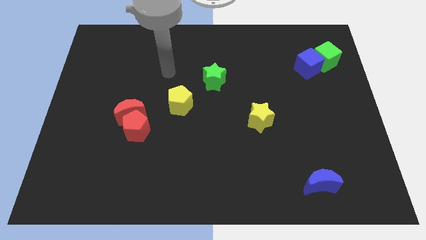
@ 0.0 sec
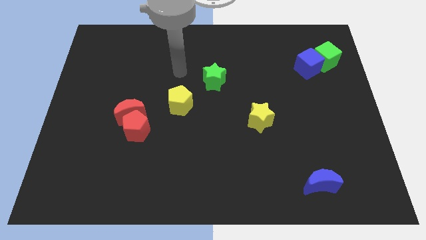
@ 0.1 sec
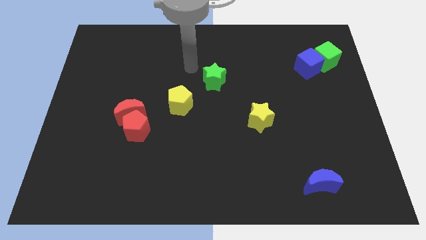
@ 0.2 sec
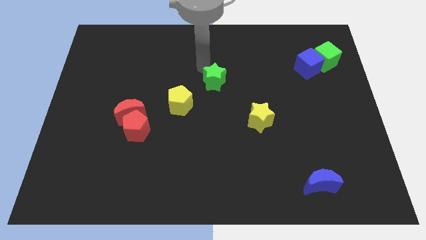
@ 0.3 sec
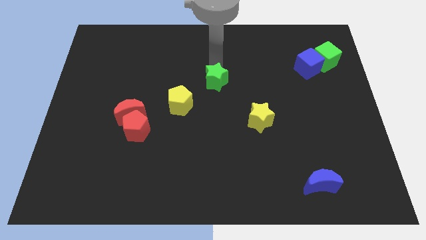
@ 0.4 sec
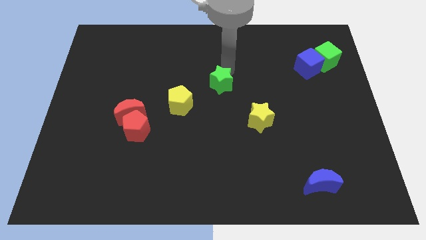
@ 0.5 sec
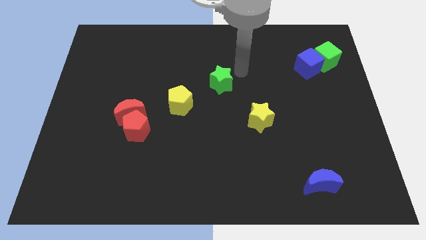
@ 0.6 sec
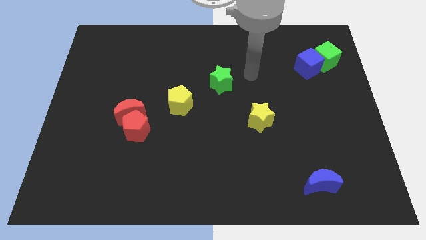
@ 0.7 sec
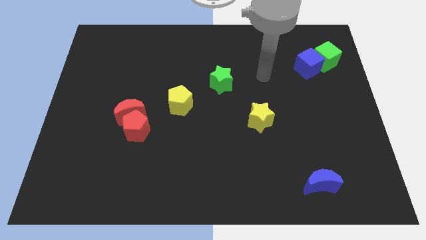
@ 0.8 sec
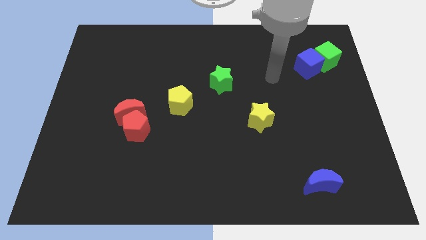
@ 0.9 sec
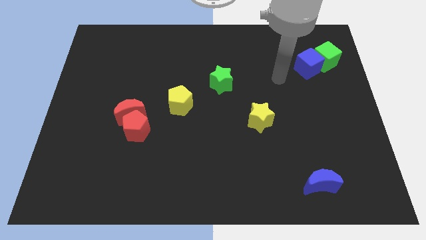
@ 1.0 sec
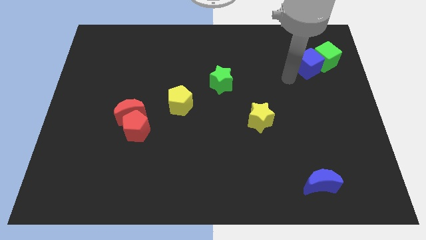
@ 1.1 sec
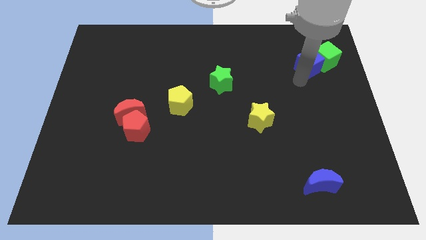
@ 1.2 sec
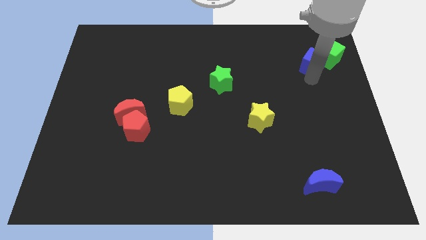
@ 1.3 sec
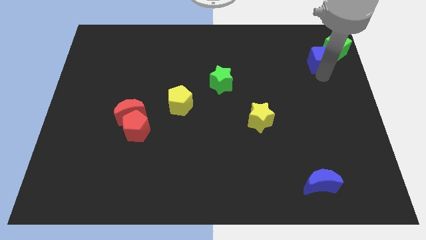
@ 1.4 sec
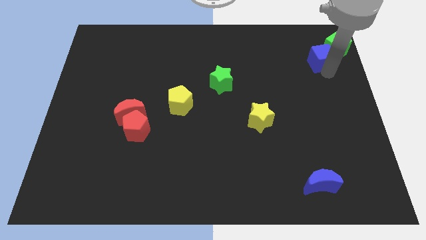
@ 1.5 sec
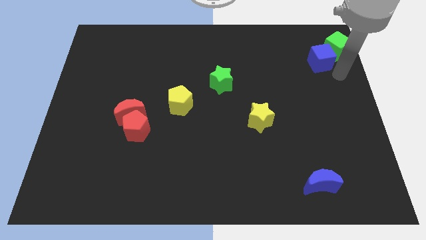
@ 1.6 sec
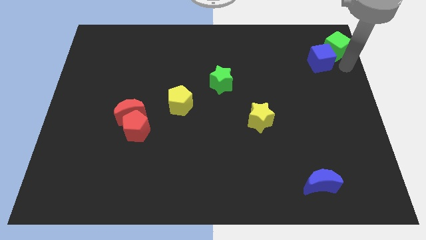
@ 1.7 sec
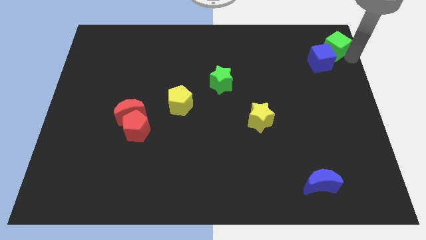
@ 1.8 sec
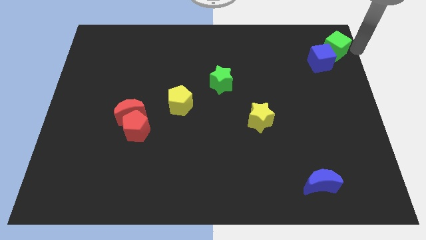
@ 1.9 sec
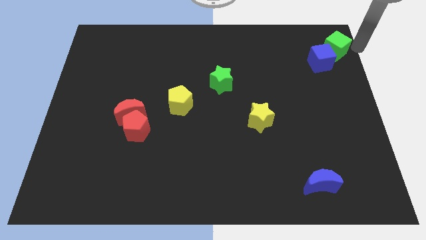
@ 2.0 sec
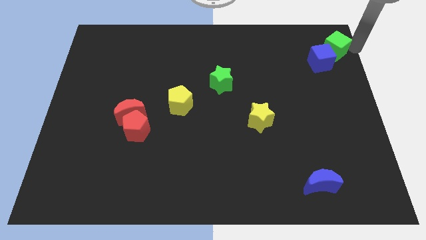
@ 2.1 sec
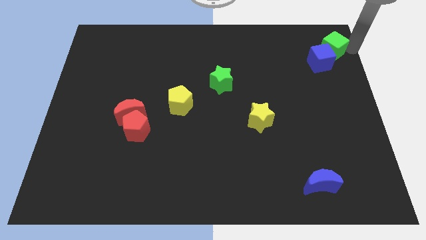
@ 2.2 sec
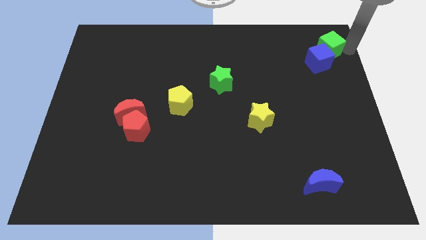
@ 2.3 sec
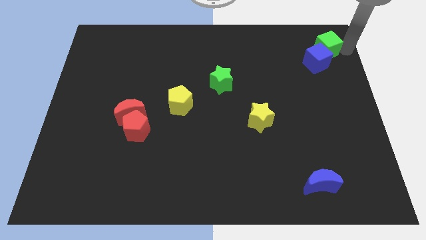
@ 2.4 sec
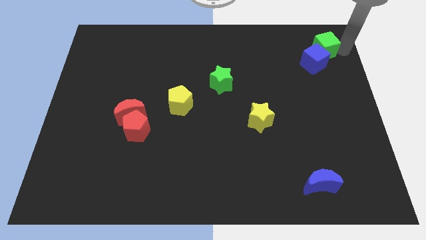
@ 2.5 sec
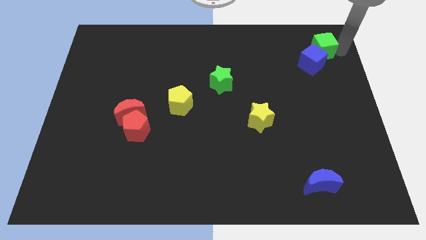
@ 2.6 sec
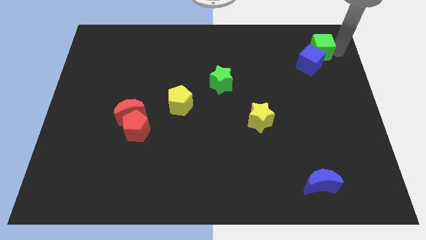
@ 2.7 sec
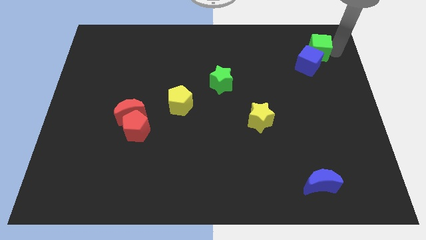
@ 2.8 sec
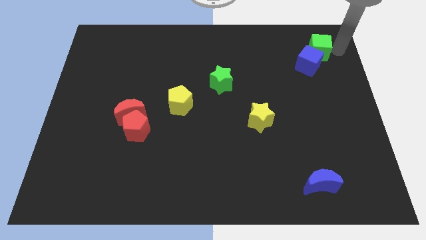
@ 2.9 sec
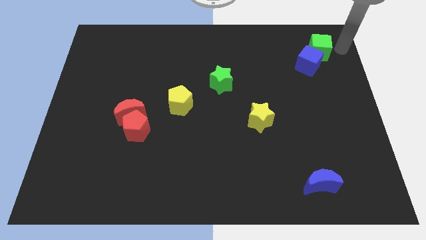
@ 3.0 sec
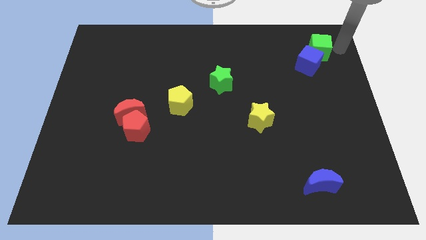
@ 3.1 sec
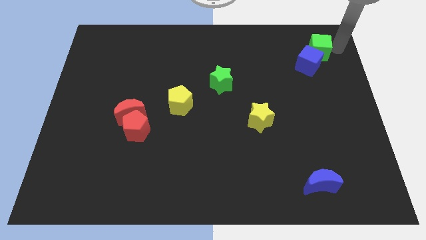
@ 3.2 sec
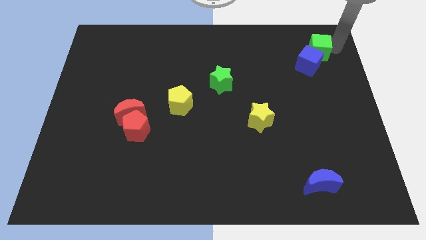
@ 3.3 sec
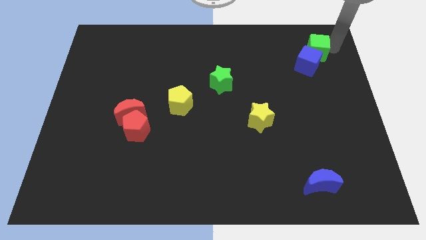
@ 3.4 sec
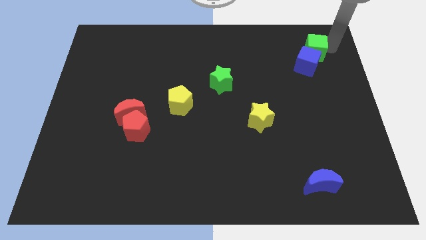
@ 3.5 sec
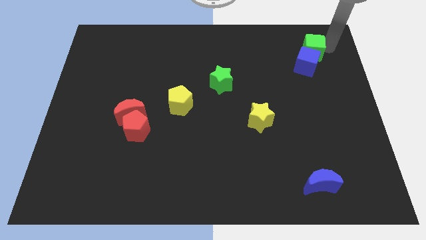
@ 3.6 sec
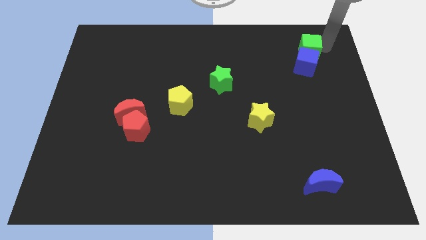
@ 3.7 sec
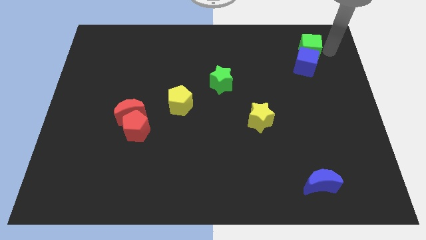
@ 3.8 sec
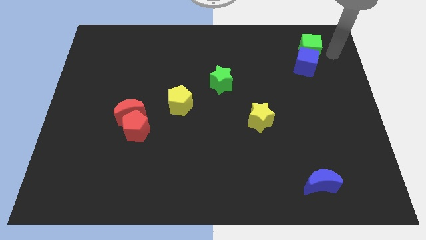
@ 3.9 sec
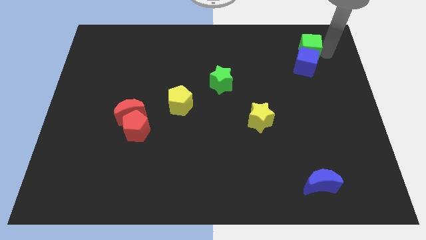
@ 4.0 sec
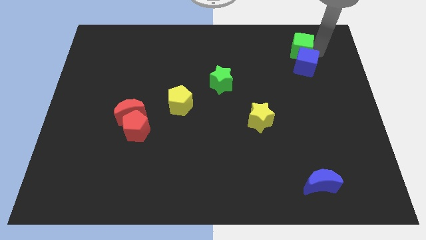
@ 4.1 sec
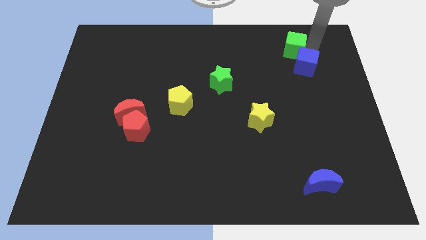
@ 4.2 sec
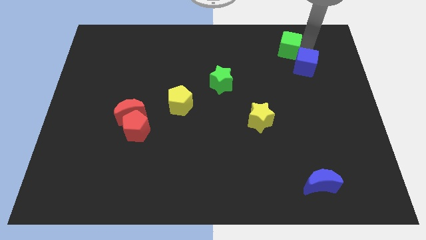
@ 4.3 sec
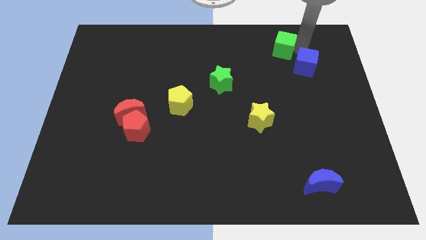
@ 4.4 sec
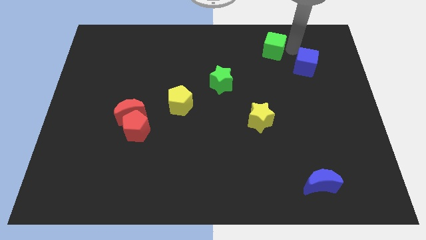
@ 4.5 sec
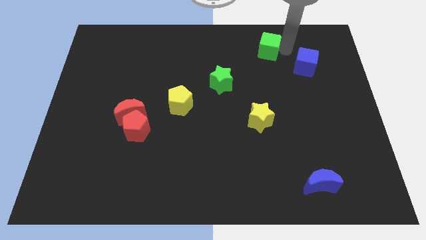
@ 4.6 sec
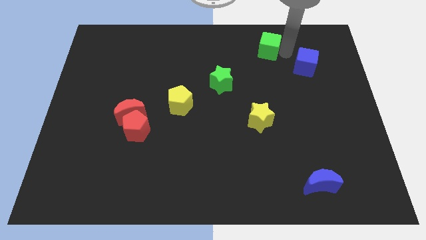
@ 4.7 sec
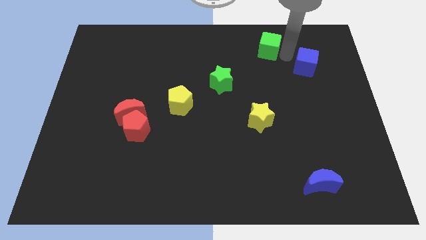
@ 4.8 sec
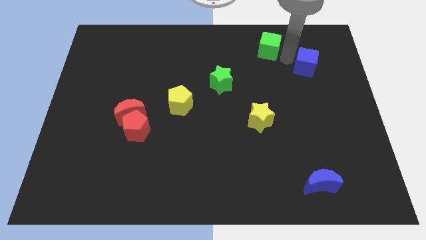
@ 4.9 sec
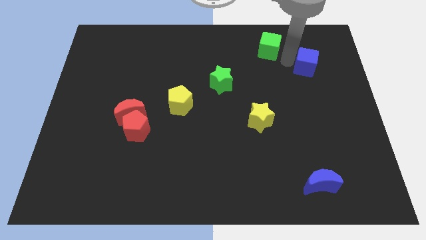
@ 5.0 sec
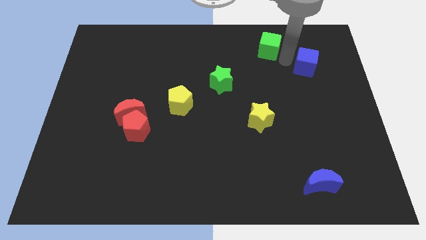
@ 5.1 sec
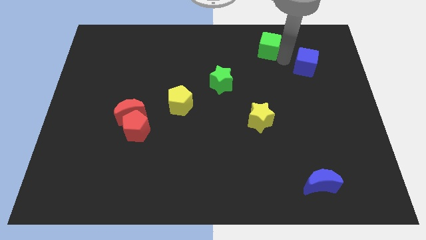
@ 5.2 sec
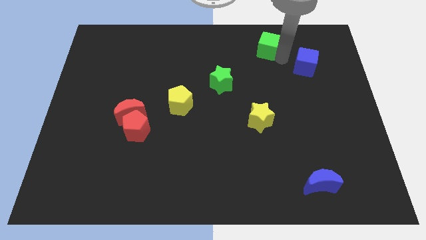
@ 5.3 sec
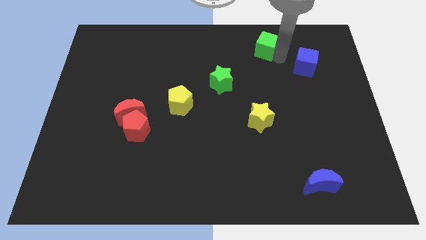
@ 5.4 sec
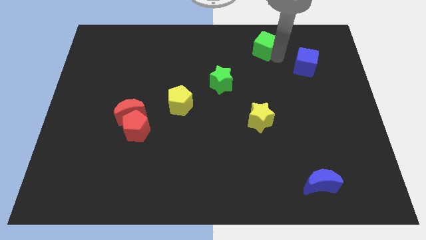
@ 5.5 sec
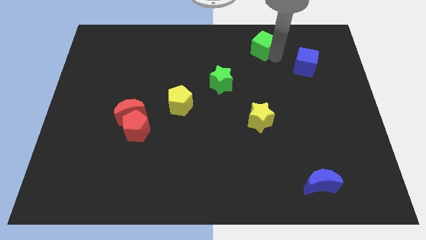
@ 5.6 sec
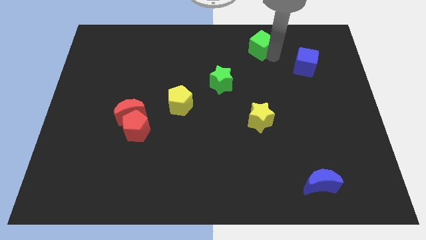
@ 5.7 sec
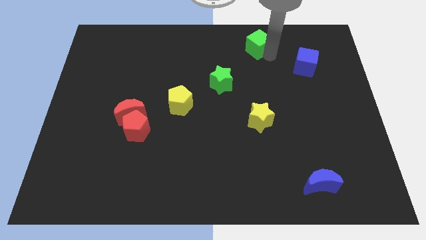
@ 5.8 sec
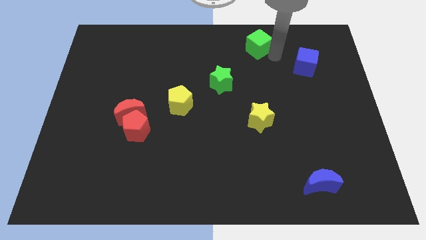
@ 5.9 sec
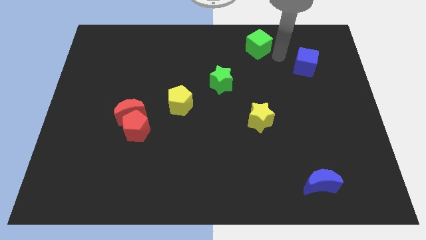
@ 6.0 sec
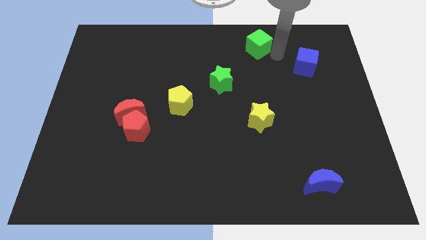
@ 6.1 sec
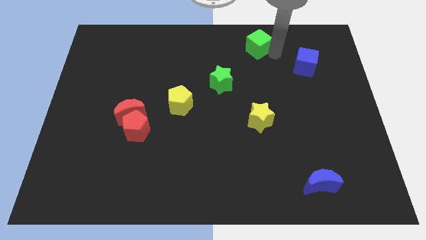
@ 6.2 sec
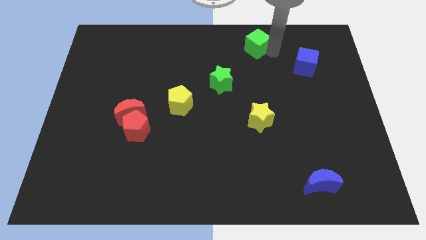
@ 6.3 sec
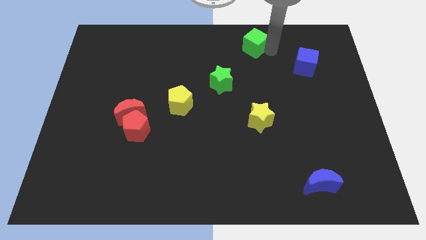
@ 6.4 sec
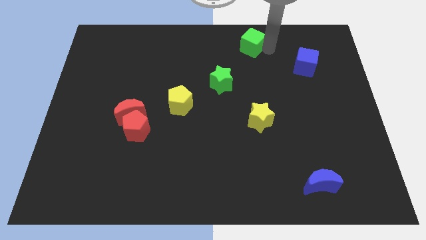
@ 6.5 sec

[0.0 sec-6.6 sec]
push the green cube to the top side

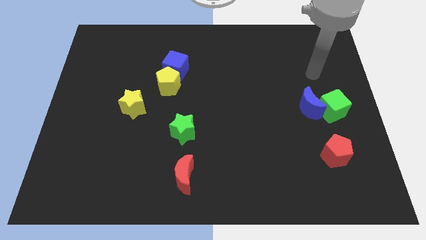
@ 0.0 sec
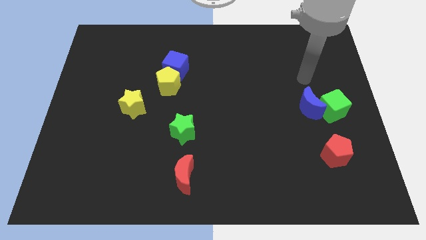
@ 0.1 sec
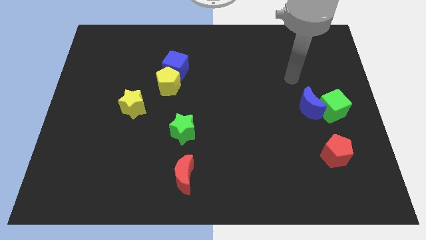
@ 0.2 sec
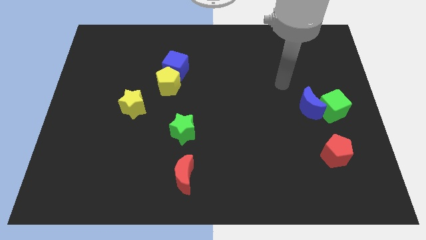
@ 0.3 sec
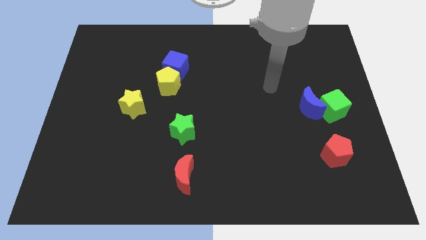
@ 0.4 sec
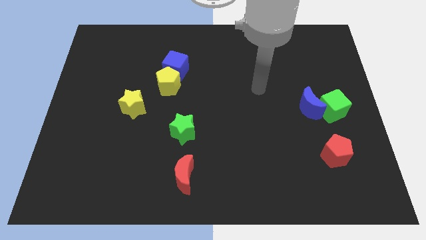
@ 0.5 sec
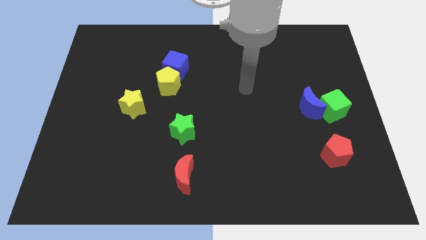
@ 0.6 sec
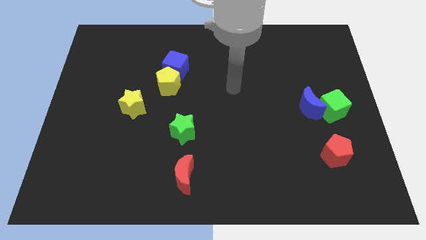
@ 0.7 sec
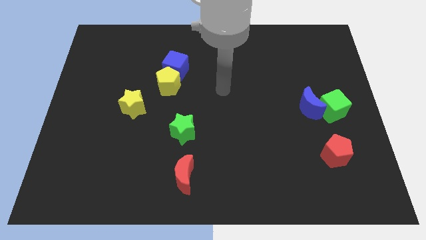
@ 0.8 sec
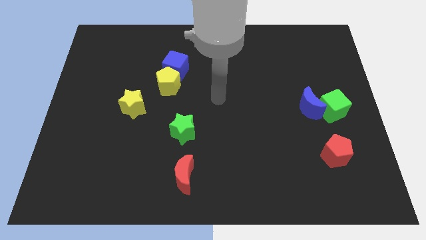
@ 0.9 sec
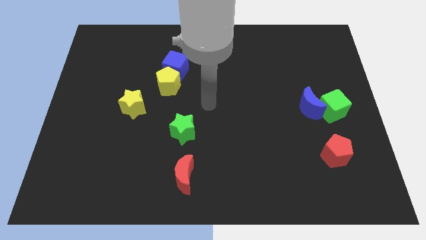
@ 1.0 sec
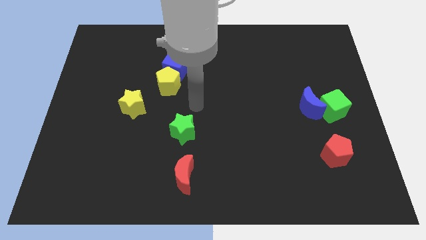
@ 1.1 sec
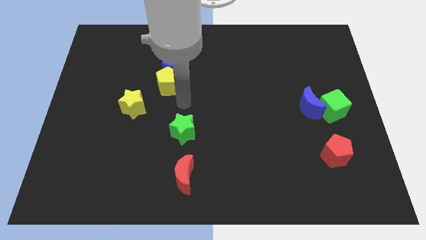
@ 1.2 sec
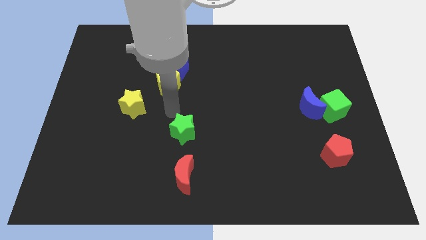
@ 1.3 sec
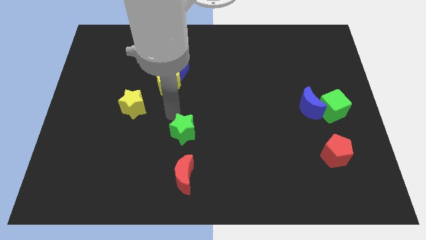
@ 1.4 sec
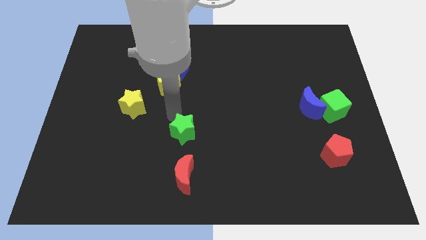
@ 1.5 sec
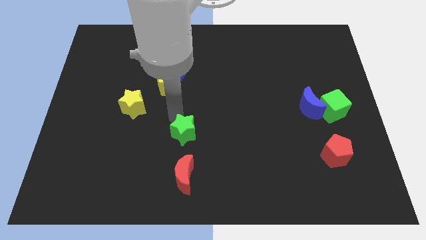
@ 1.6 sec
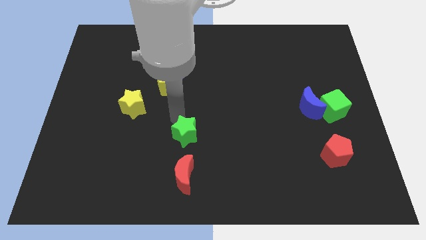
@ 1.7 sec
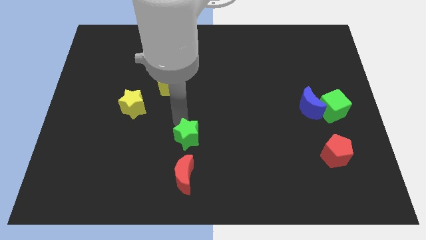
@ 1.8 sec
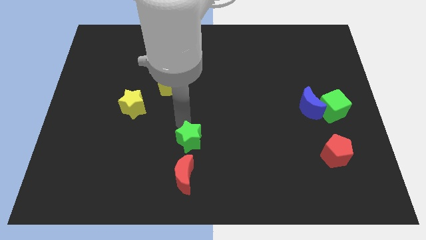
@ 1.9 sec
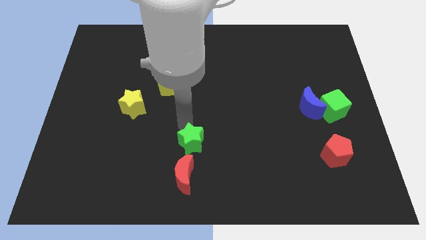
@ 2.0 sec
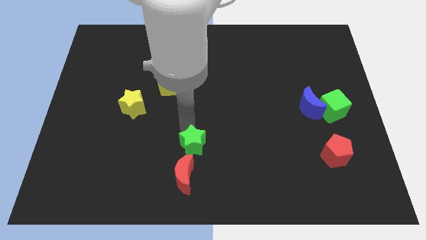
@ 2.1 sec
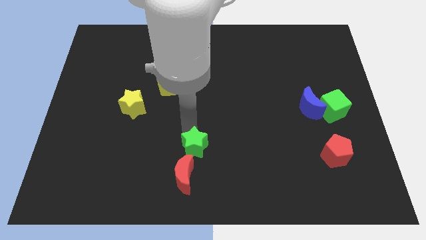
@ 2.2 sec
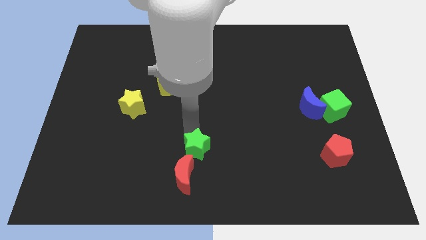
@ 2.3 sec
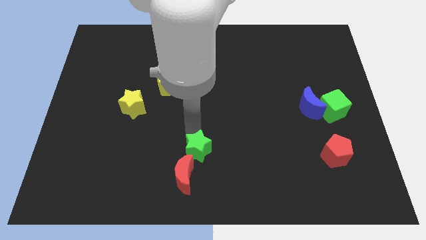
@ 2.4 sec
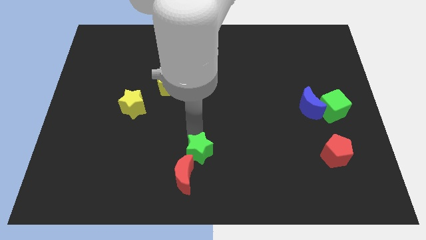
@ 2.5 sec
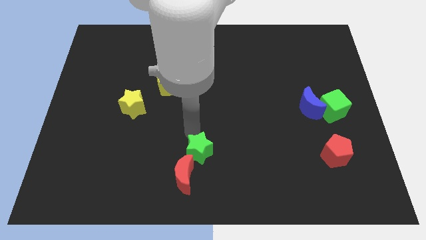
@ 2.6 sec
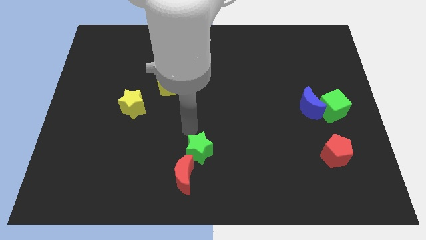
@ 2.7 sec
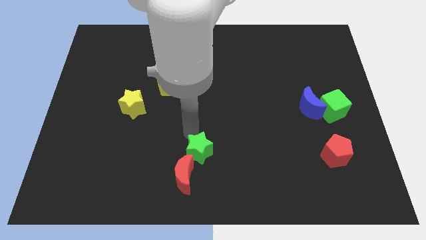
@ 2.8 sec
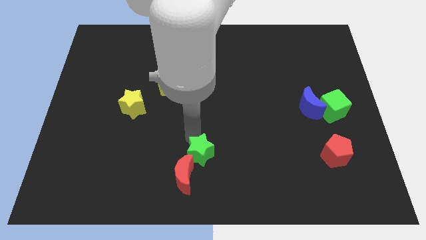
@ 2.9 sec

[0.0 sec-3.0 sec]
put the green star to the bottom
